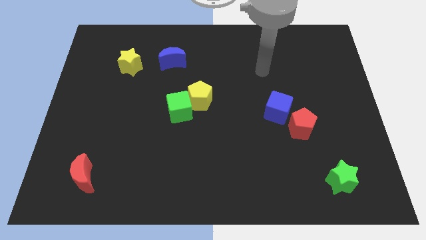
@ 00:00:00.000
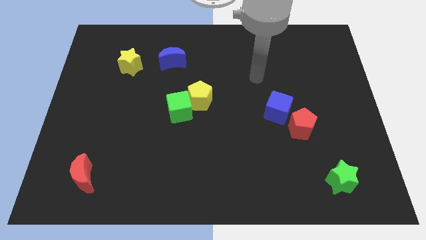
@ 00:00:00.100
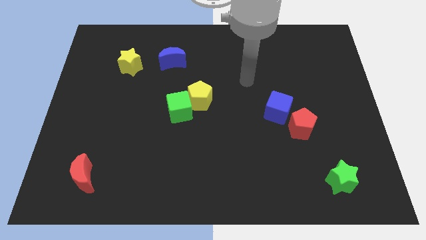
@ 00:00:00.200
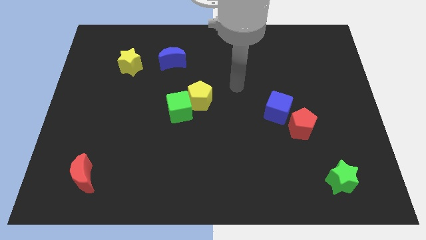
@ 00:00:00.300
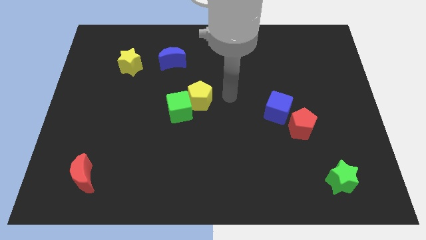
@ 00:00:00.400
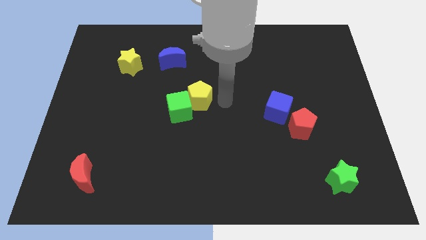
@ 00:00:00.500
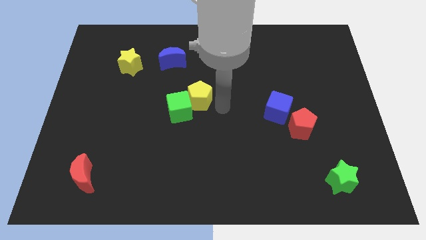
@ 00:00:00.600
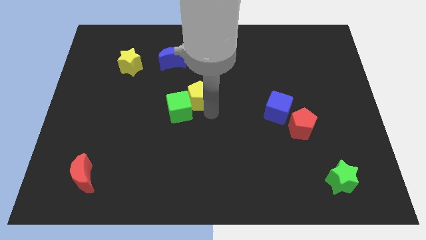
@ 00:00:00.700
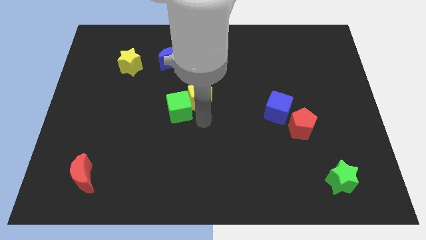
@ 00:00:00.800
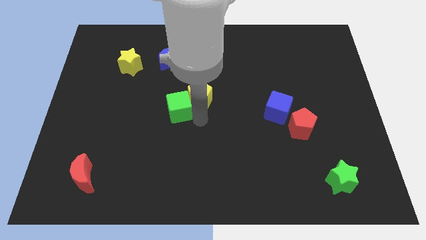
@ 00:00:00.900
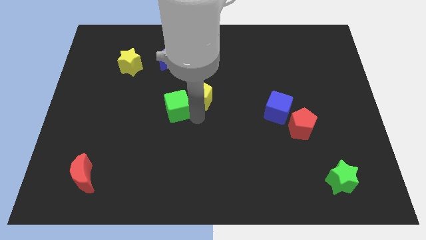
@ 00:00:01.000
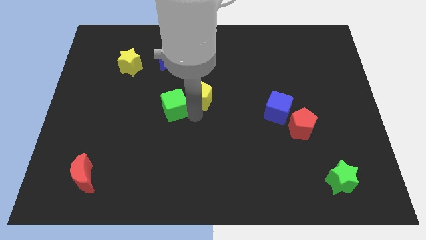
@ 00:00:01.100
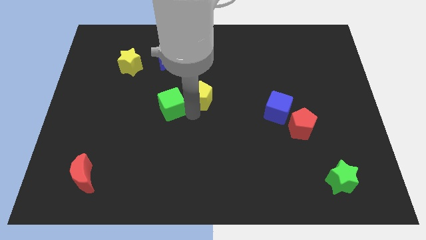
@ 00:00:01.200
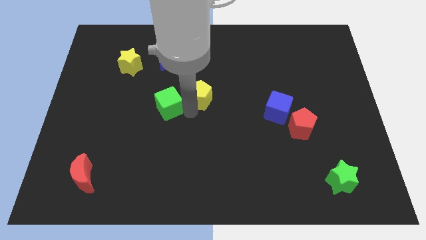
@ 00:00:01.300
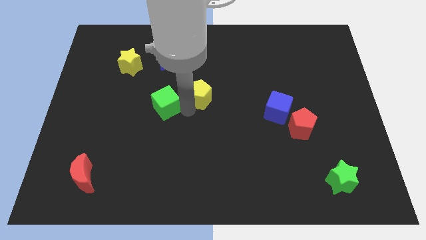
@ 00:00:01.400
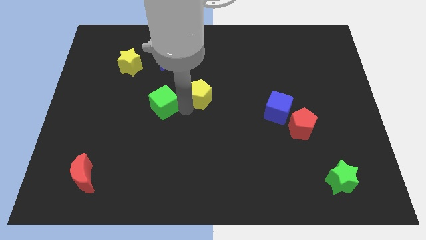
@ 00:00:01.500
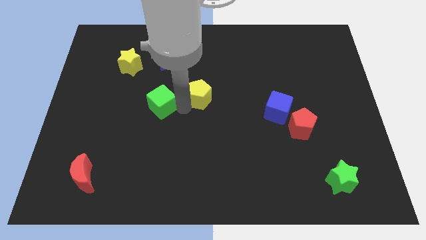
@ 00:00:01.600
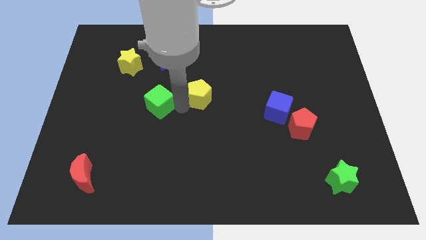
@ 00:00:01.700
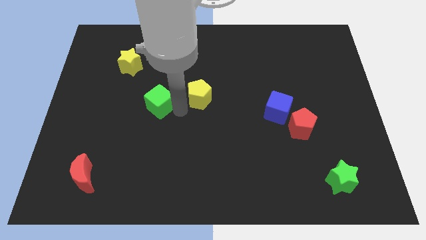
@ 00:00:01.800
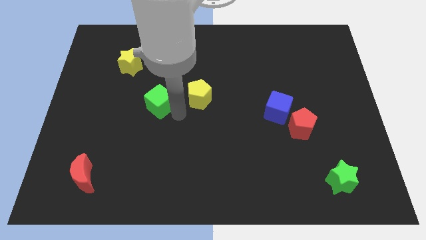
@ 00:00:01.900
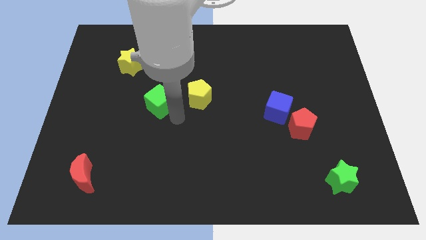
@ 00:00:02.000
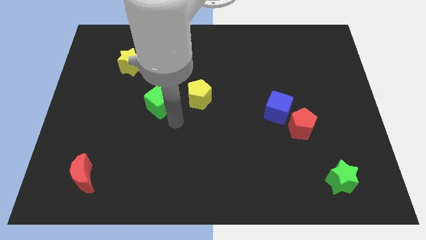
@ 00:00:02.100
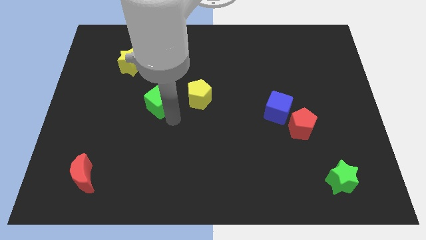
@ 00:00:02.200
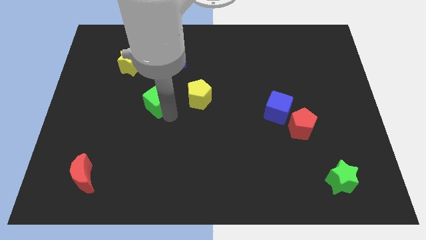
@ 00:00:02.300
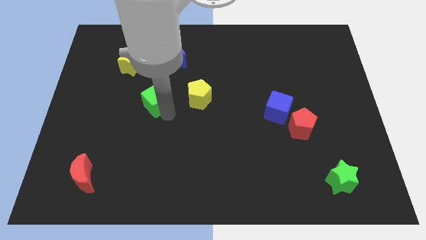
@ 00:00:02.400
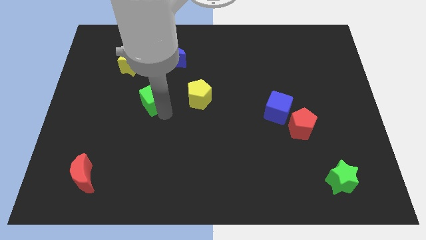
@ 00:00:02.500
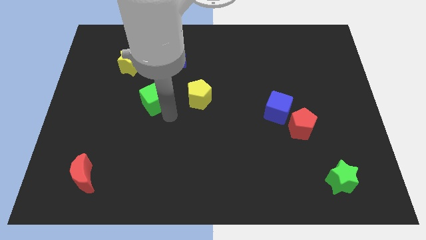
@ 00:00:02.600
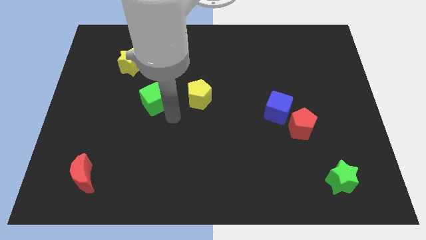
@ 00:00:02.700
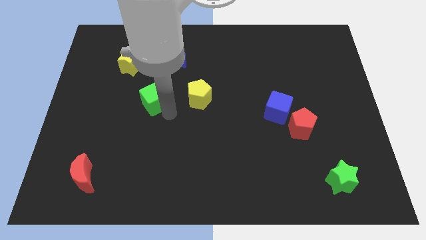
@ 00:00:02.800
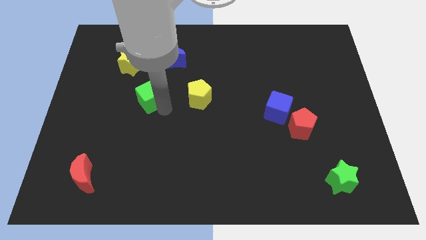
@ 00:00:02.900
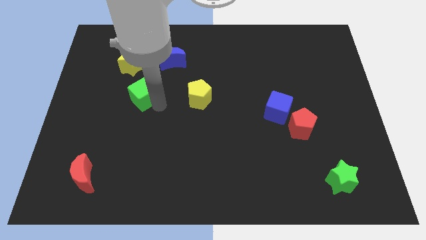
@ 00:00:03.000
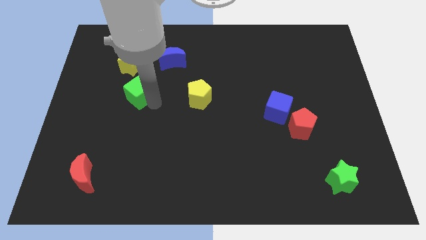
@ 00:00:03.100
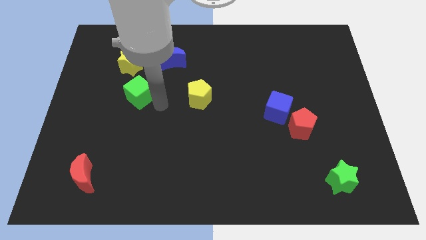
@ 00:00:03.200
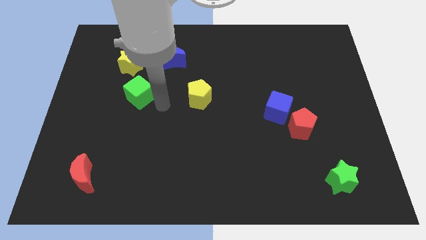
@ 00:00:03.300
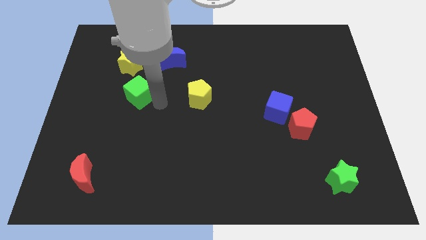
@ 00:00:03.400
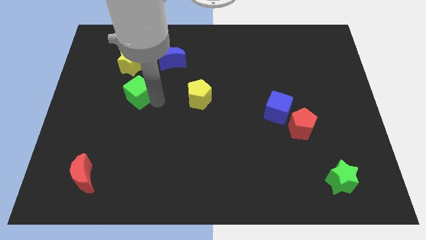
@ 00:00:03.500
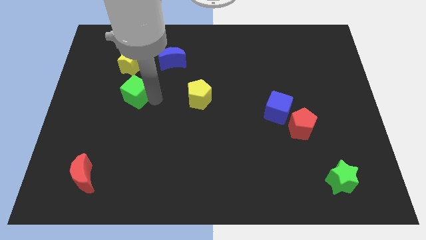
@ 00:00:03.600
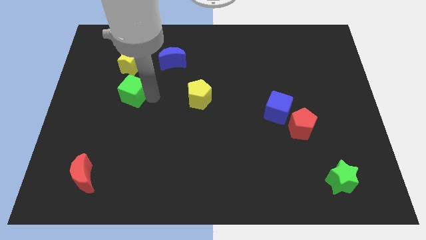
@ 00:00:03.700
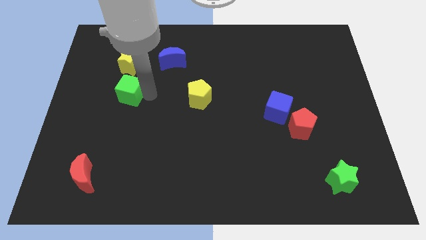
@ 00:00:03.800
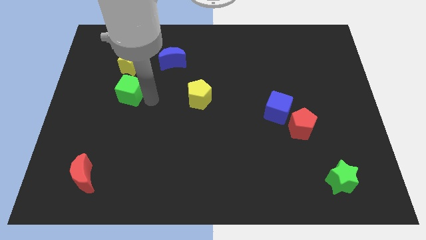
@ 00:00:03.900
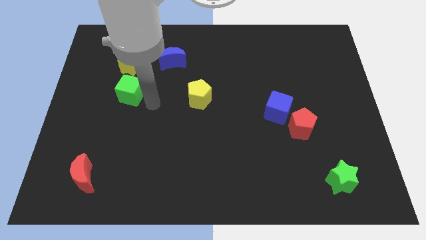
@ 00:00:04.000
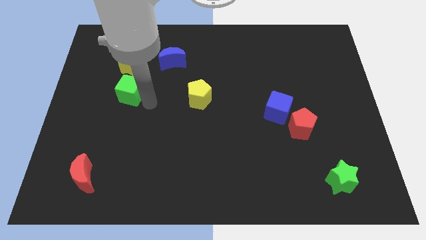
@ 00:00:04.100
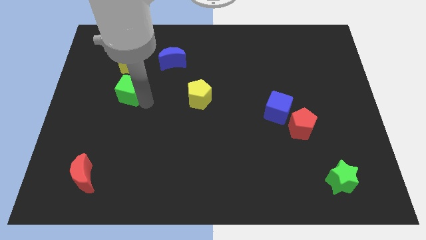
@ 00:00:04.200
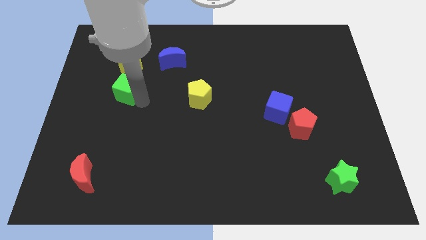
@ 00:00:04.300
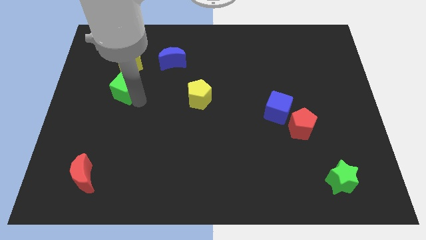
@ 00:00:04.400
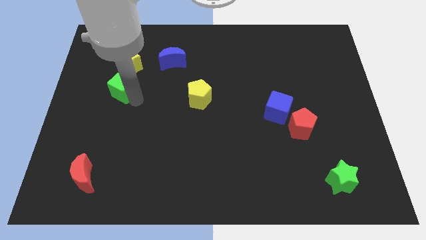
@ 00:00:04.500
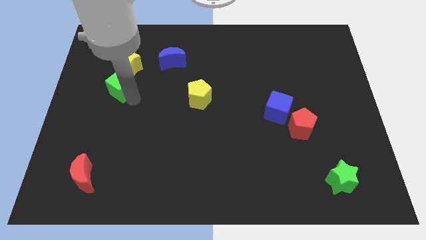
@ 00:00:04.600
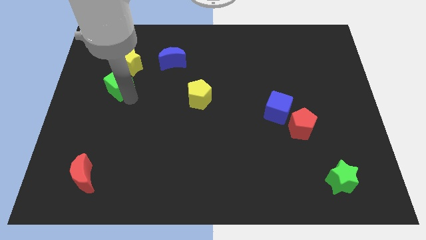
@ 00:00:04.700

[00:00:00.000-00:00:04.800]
put the green cube to the bottom left of the yellow star

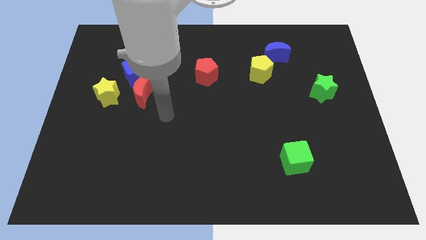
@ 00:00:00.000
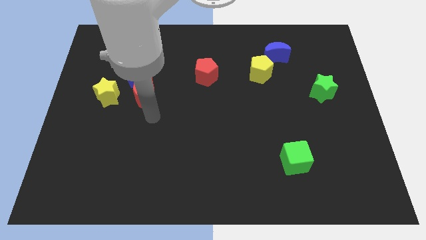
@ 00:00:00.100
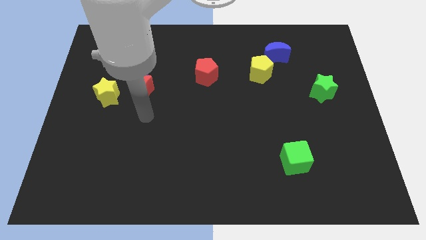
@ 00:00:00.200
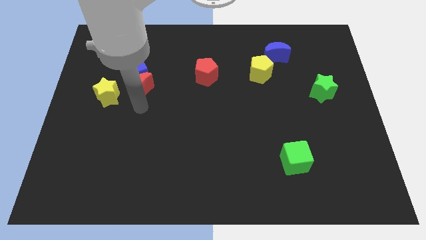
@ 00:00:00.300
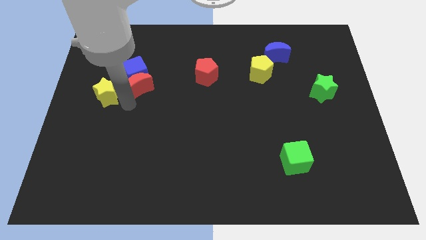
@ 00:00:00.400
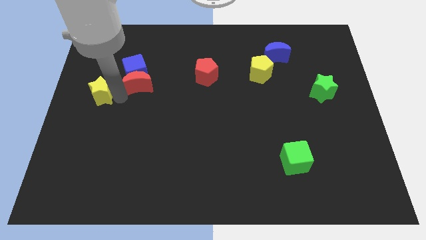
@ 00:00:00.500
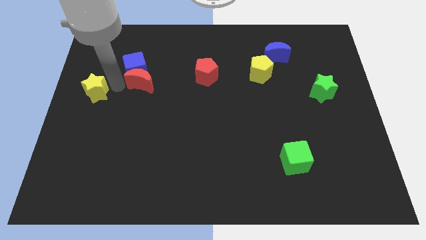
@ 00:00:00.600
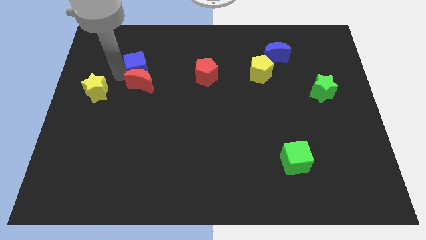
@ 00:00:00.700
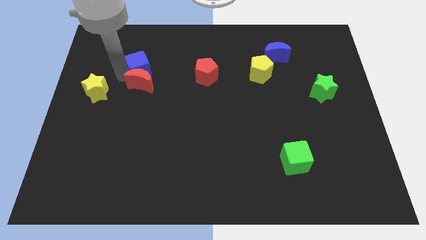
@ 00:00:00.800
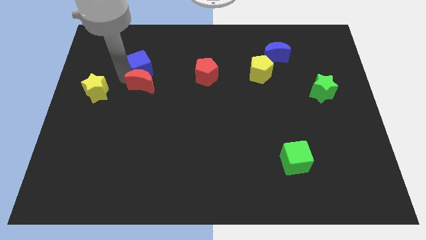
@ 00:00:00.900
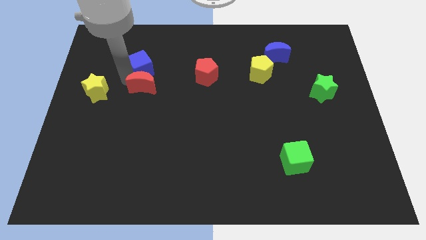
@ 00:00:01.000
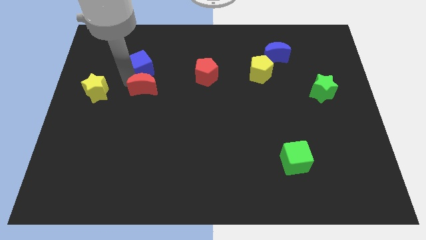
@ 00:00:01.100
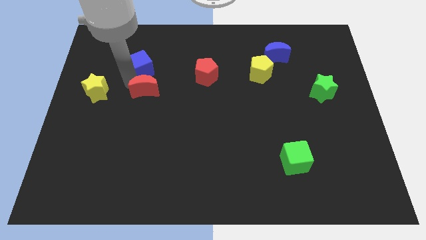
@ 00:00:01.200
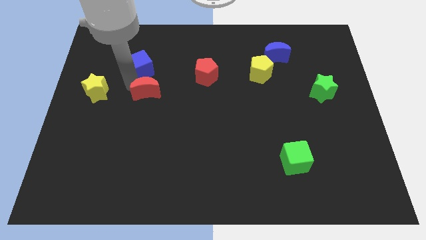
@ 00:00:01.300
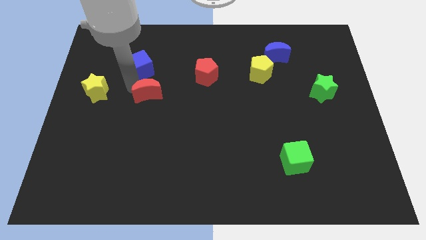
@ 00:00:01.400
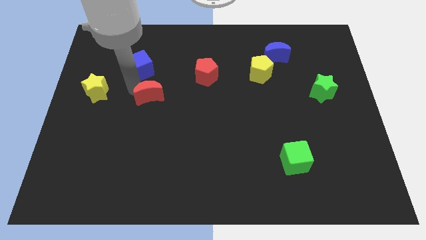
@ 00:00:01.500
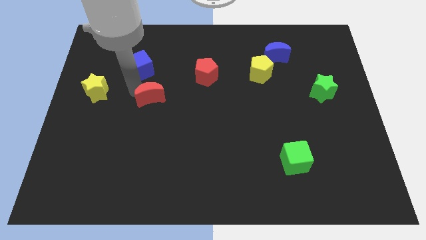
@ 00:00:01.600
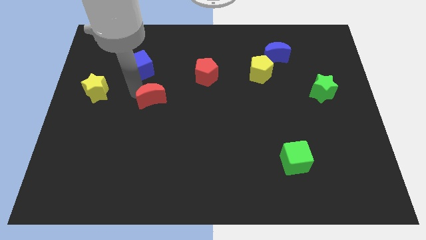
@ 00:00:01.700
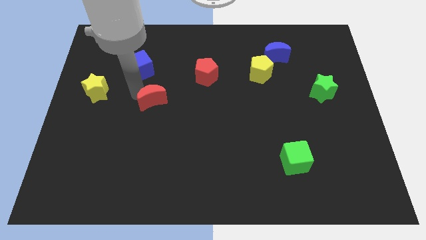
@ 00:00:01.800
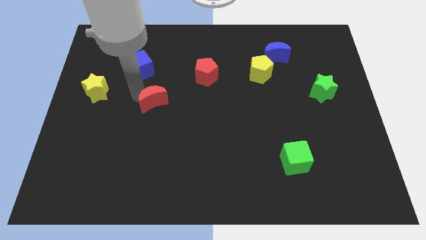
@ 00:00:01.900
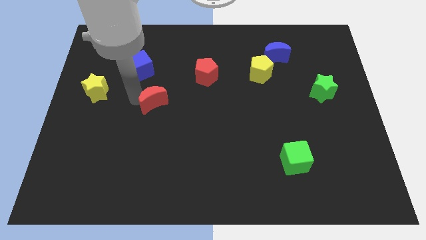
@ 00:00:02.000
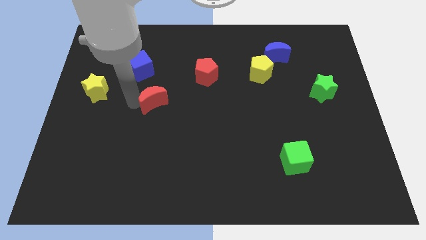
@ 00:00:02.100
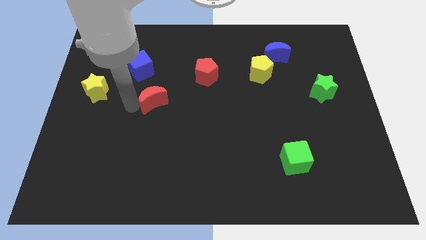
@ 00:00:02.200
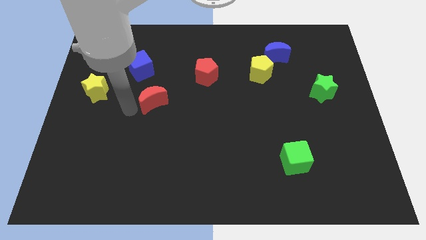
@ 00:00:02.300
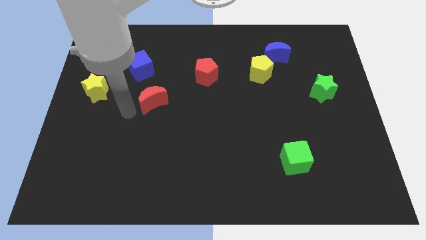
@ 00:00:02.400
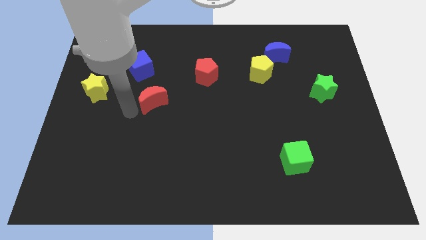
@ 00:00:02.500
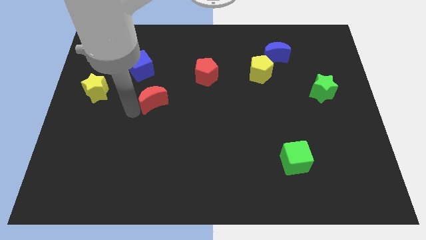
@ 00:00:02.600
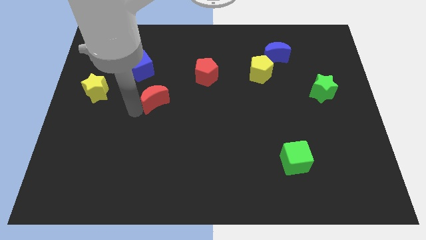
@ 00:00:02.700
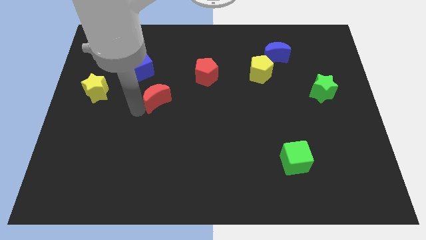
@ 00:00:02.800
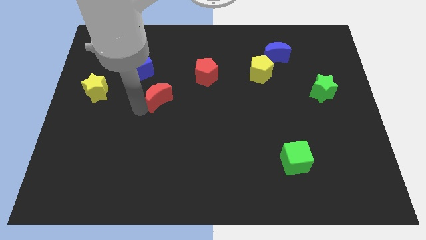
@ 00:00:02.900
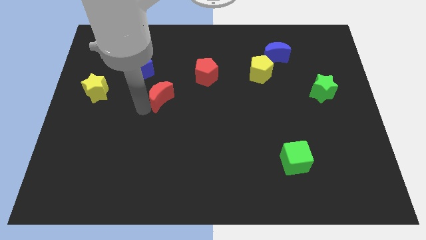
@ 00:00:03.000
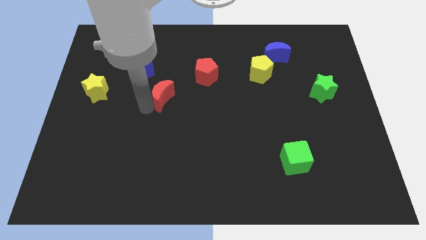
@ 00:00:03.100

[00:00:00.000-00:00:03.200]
move the red moon to the bottom left of the red pentagon
